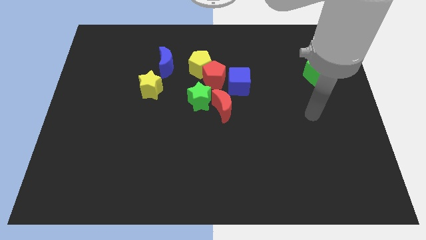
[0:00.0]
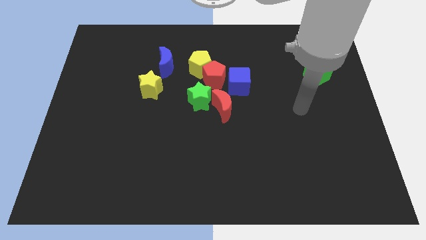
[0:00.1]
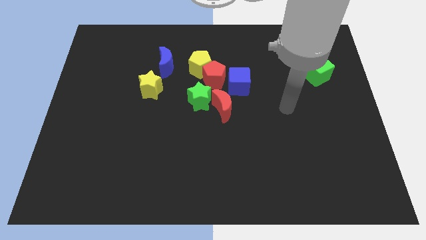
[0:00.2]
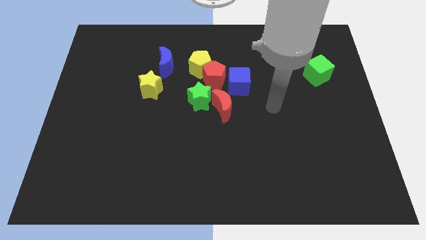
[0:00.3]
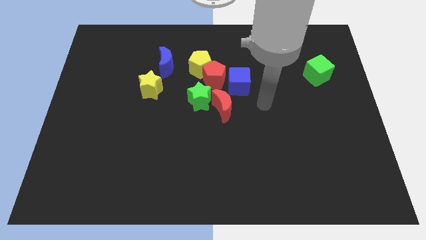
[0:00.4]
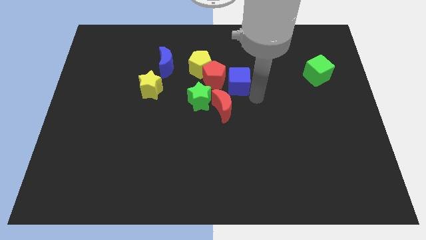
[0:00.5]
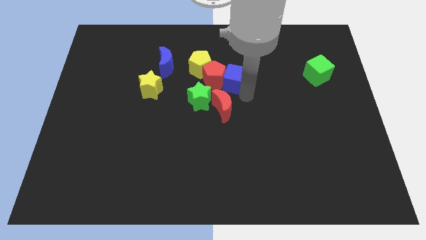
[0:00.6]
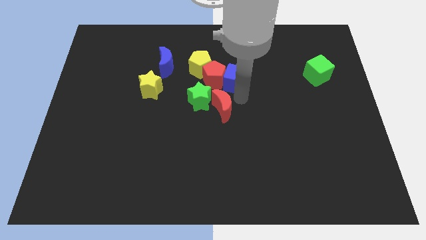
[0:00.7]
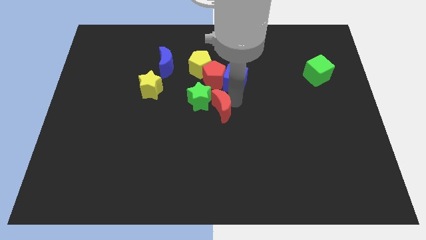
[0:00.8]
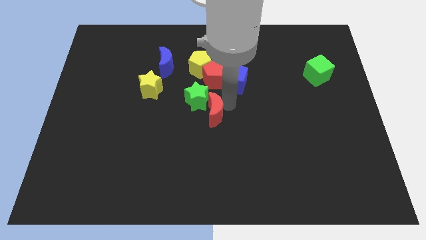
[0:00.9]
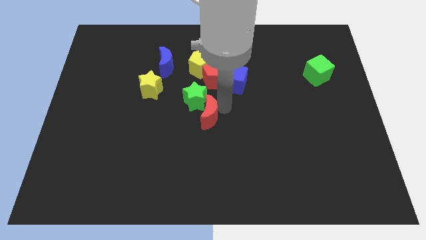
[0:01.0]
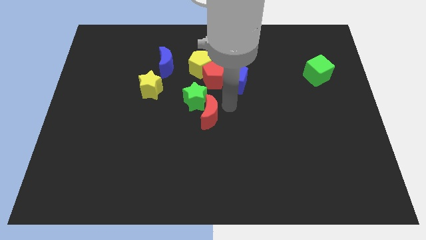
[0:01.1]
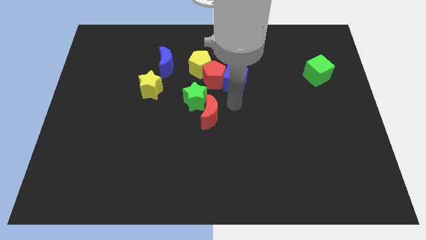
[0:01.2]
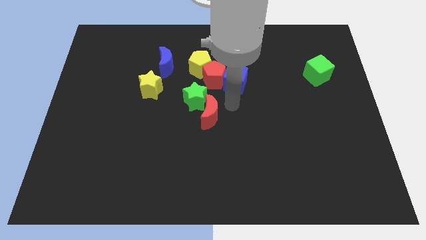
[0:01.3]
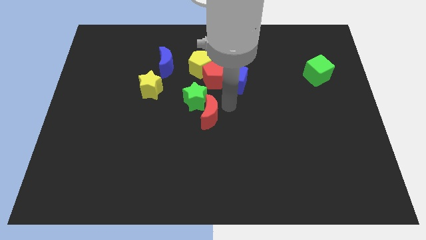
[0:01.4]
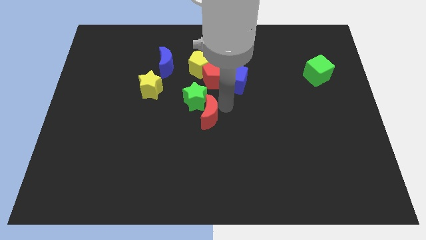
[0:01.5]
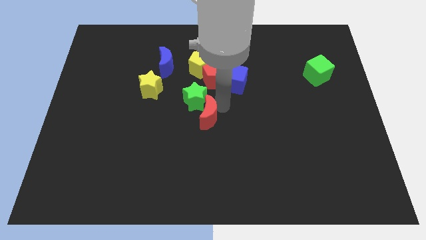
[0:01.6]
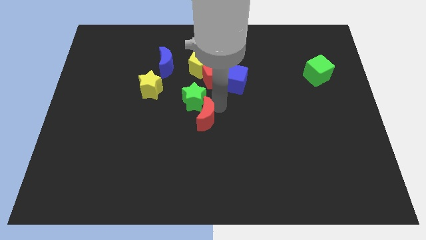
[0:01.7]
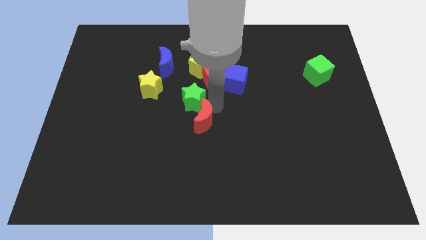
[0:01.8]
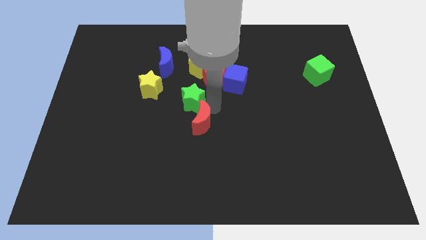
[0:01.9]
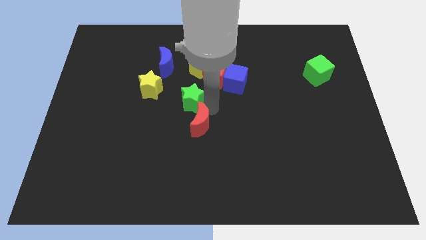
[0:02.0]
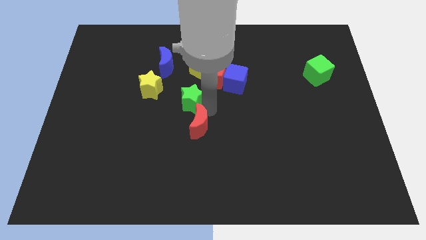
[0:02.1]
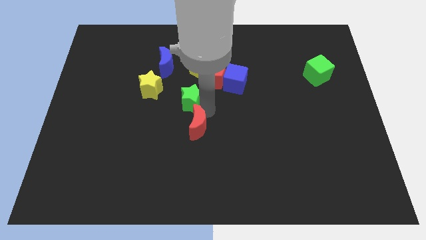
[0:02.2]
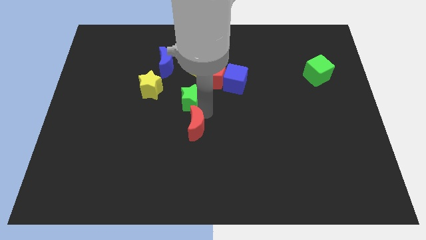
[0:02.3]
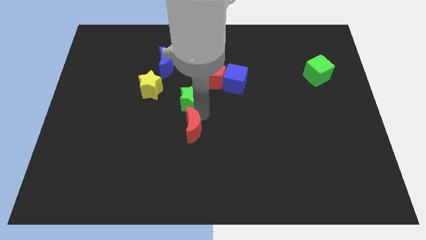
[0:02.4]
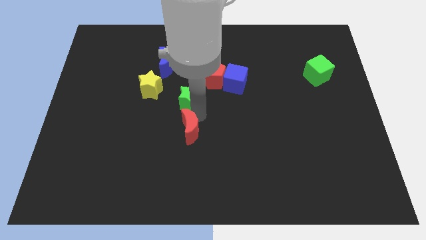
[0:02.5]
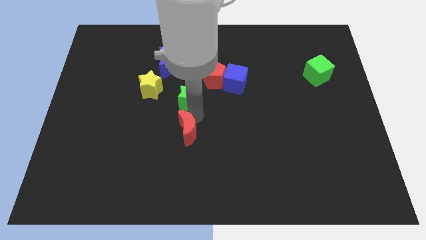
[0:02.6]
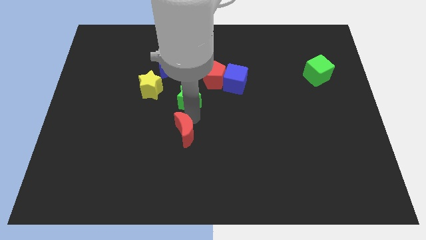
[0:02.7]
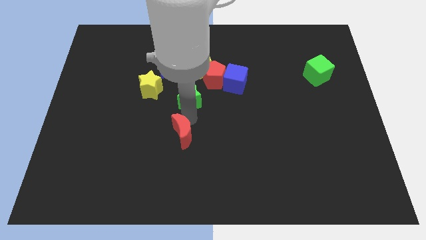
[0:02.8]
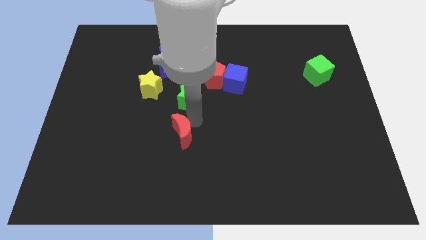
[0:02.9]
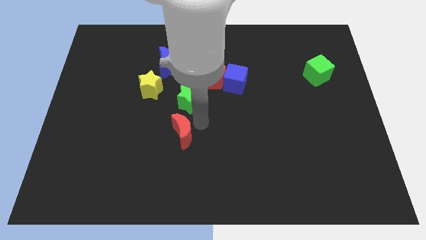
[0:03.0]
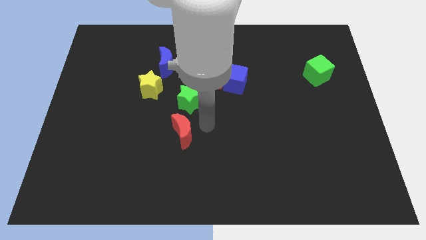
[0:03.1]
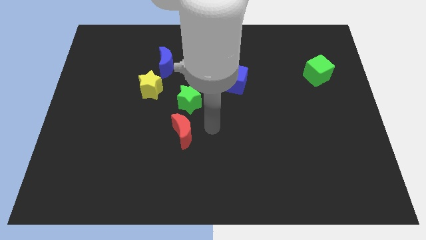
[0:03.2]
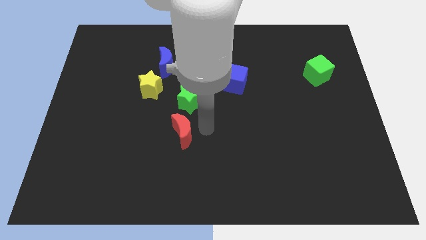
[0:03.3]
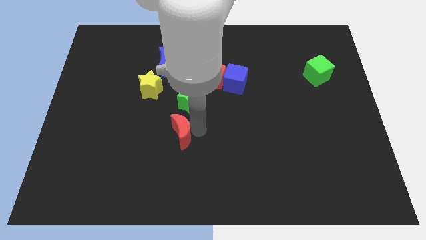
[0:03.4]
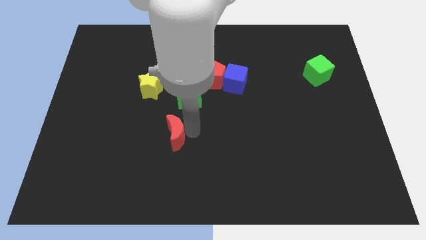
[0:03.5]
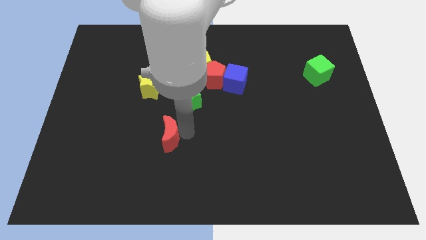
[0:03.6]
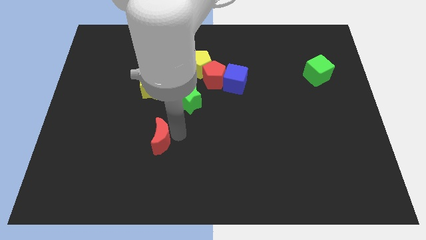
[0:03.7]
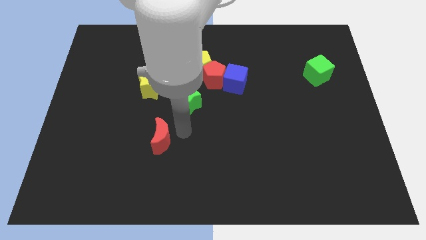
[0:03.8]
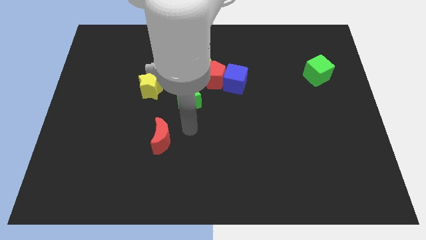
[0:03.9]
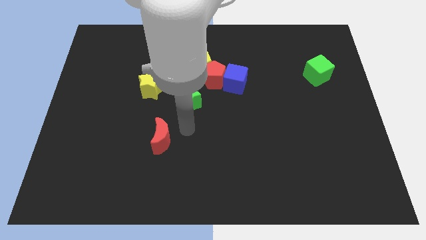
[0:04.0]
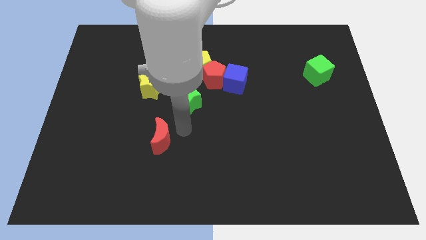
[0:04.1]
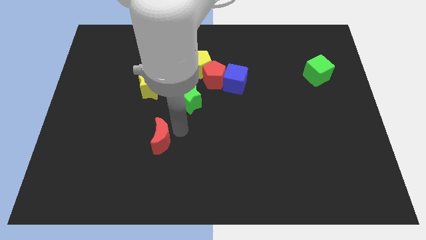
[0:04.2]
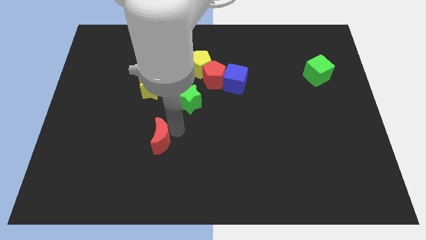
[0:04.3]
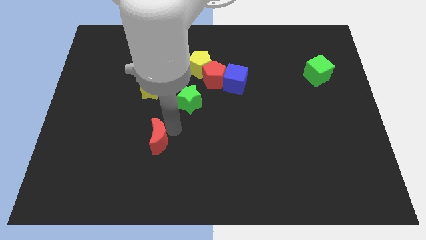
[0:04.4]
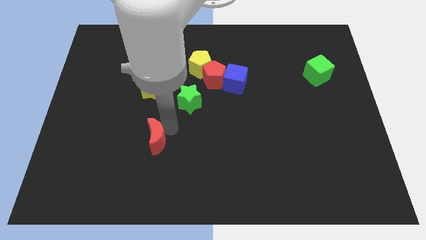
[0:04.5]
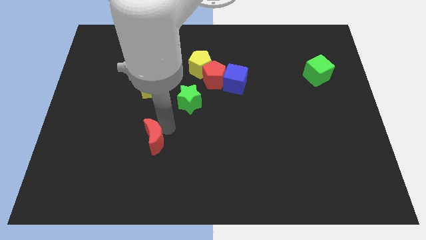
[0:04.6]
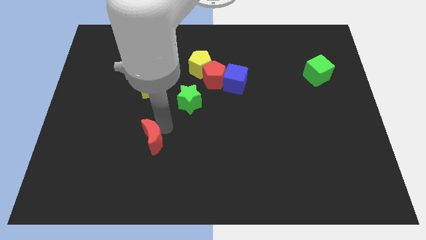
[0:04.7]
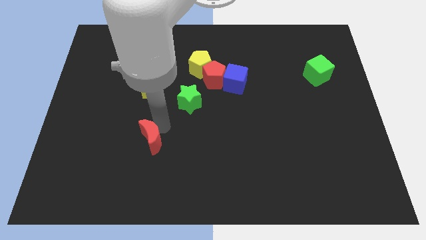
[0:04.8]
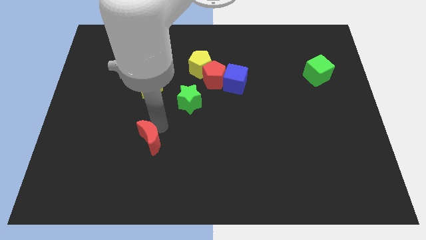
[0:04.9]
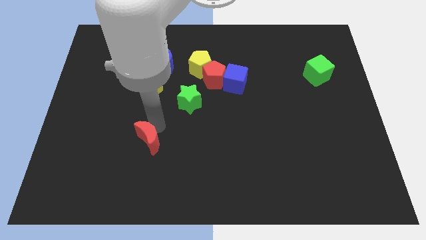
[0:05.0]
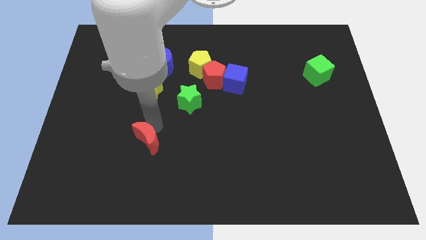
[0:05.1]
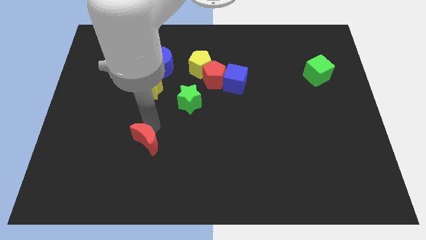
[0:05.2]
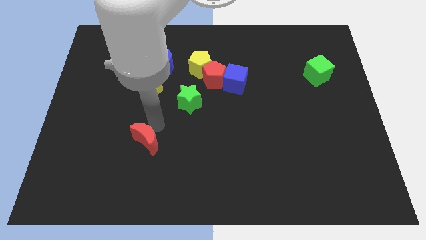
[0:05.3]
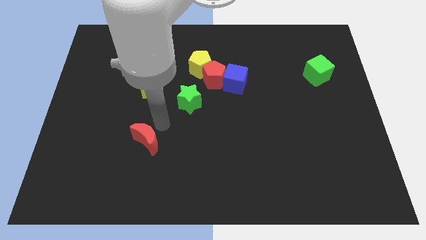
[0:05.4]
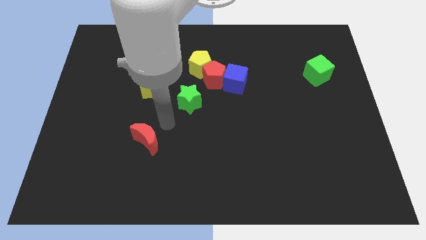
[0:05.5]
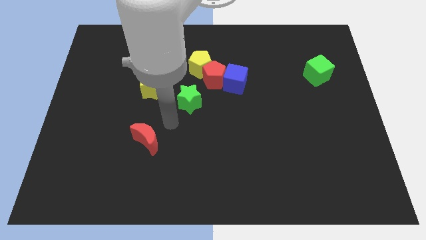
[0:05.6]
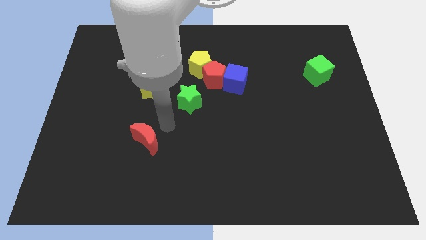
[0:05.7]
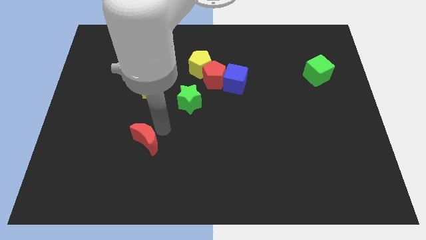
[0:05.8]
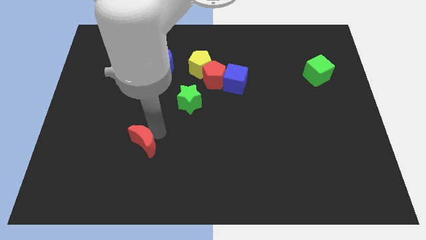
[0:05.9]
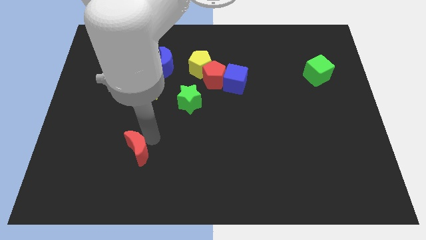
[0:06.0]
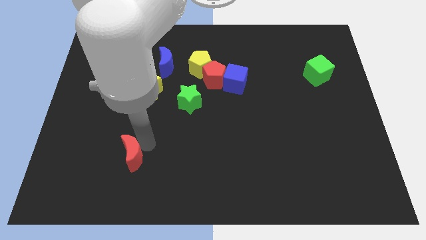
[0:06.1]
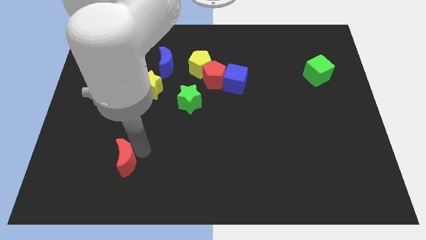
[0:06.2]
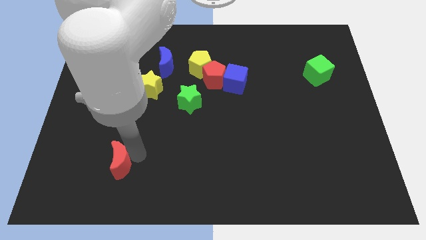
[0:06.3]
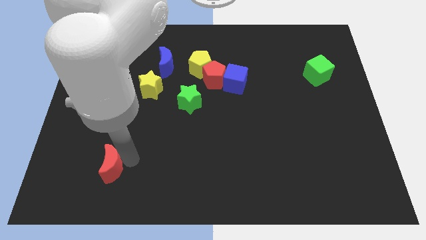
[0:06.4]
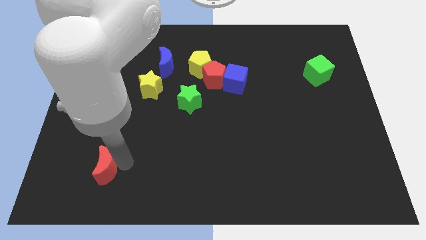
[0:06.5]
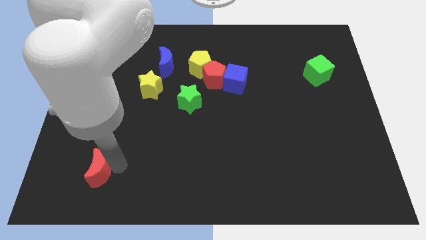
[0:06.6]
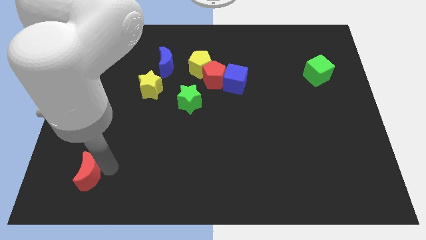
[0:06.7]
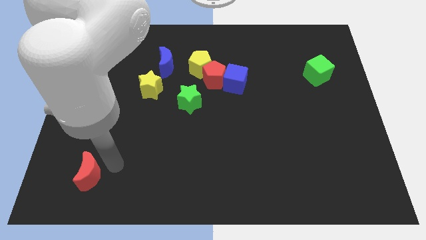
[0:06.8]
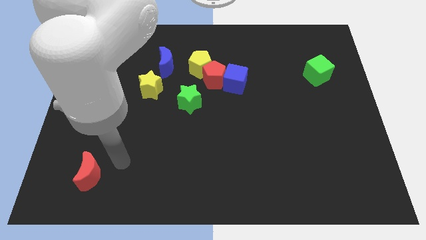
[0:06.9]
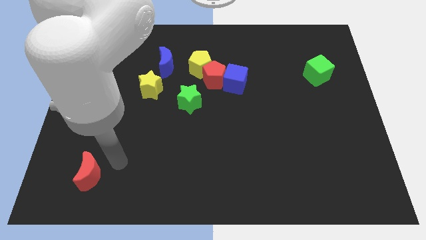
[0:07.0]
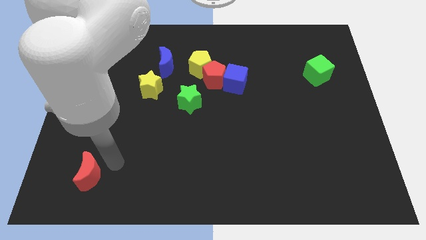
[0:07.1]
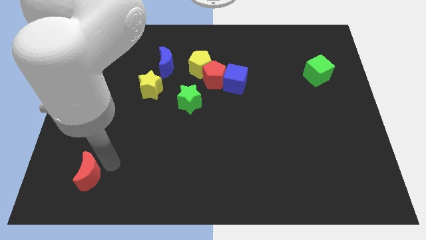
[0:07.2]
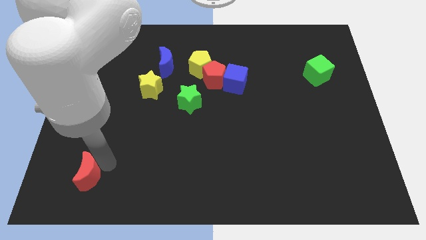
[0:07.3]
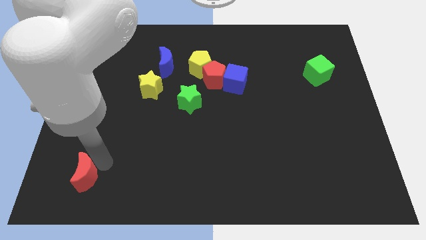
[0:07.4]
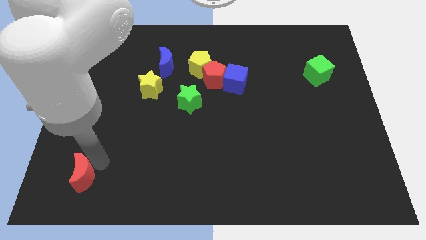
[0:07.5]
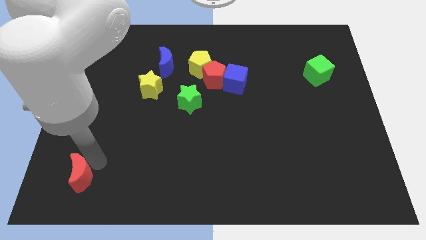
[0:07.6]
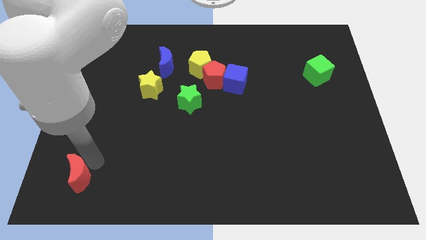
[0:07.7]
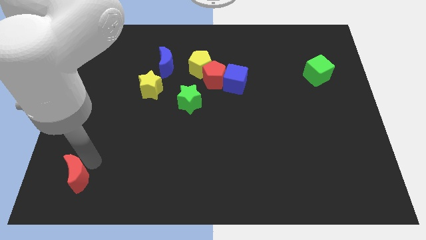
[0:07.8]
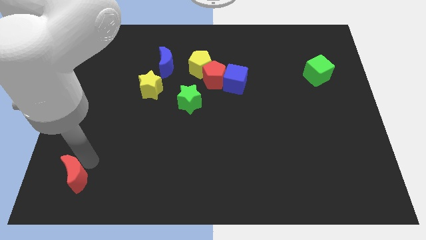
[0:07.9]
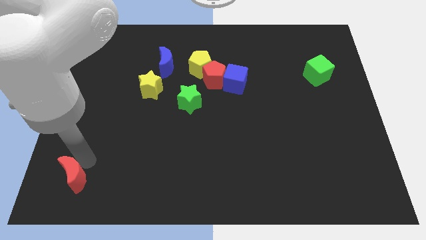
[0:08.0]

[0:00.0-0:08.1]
slide the red moon to the lower left corner

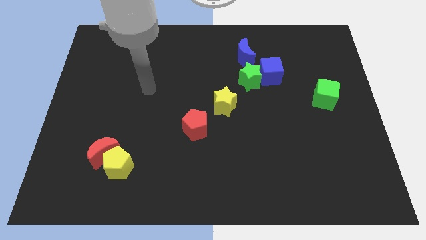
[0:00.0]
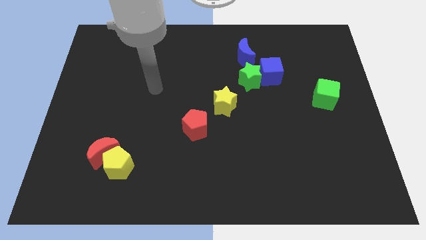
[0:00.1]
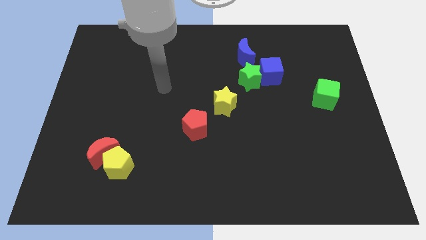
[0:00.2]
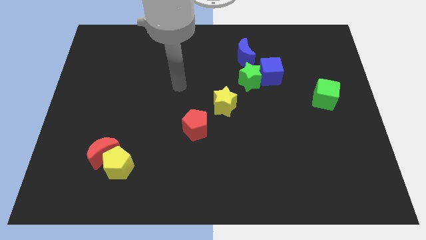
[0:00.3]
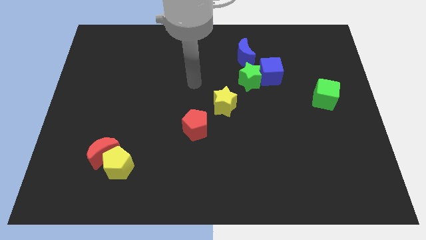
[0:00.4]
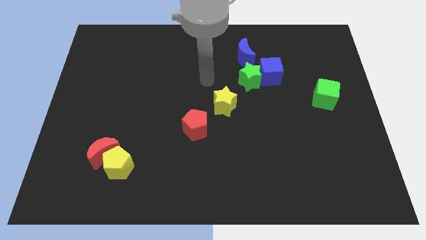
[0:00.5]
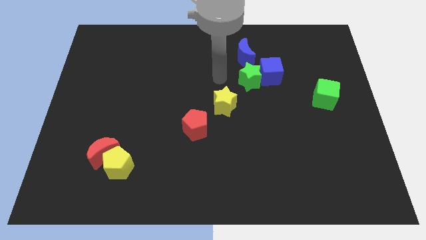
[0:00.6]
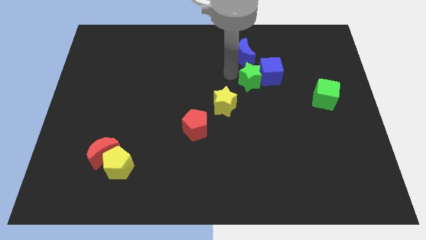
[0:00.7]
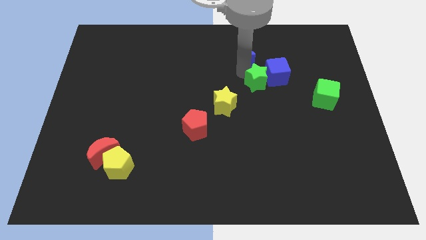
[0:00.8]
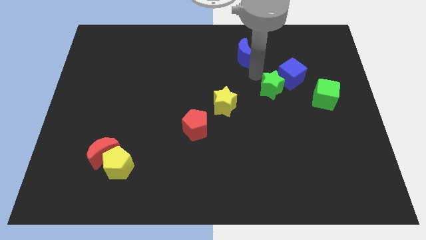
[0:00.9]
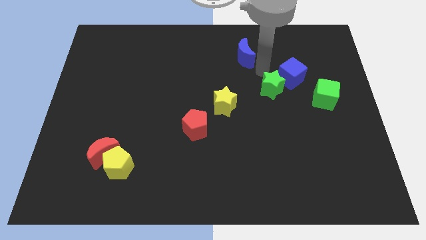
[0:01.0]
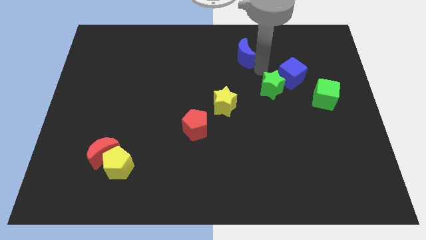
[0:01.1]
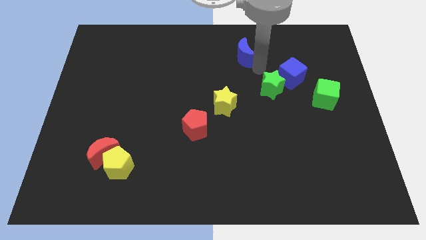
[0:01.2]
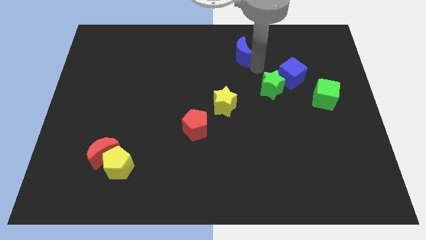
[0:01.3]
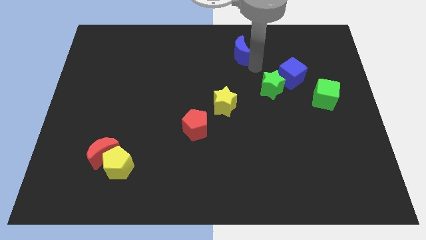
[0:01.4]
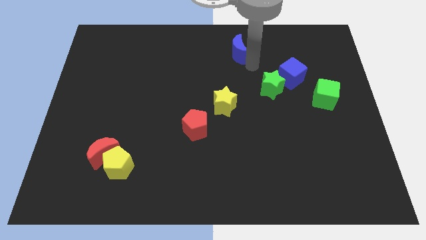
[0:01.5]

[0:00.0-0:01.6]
push the blue moon to the towards your base
